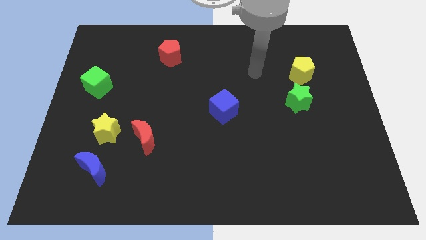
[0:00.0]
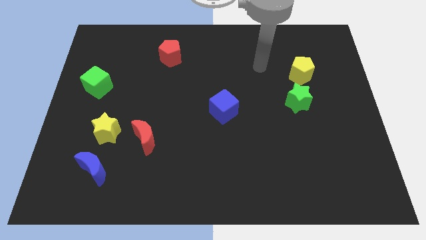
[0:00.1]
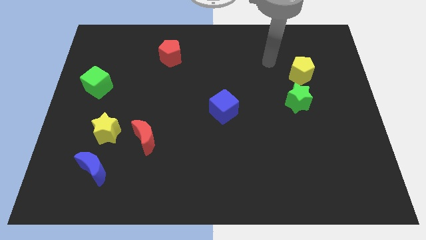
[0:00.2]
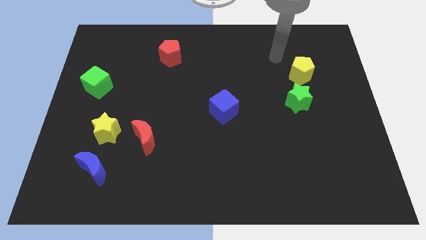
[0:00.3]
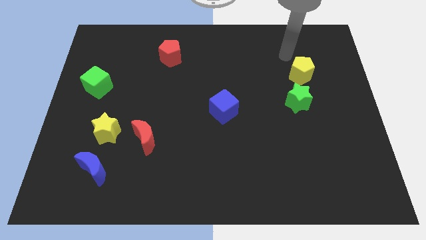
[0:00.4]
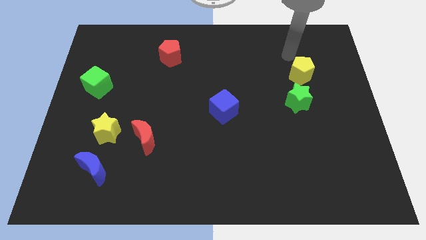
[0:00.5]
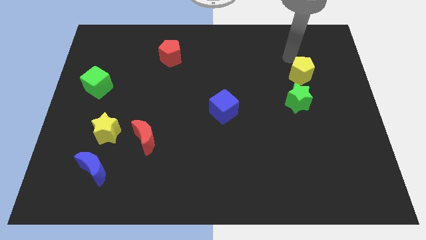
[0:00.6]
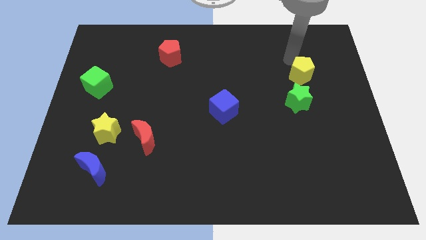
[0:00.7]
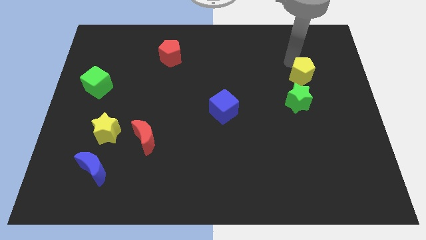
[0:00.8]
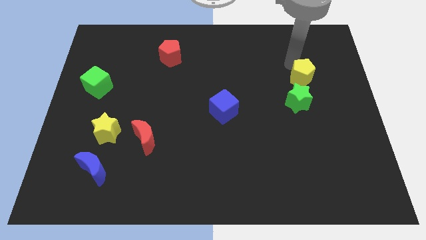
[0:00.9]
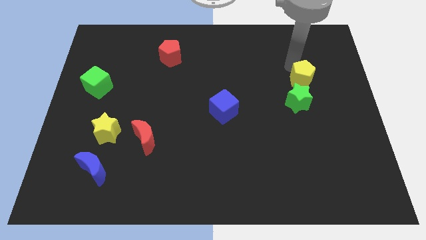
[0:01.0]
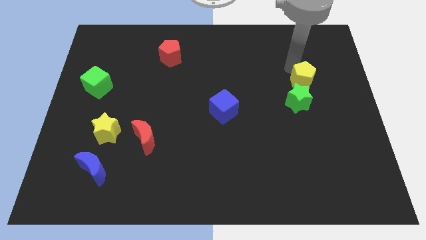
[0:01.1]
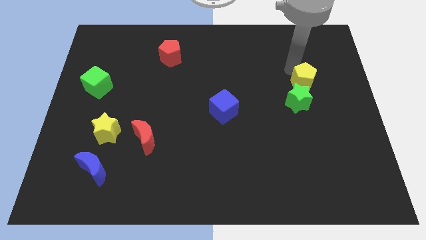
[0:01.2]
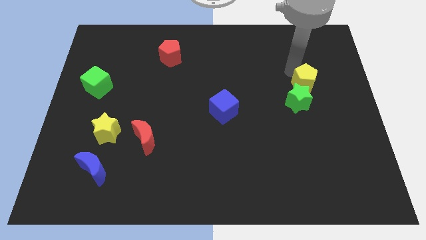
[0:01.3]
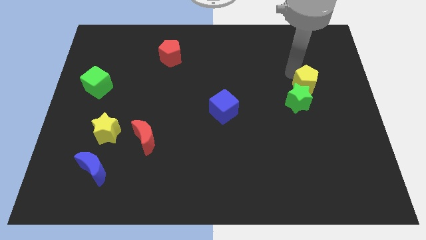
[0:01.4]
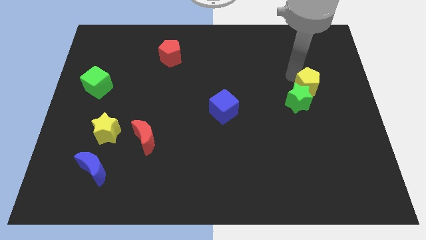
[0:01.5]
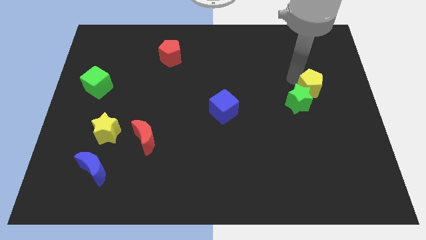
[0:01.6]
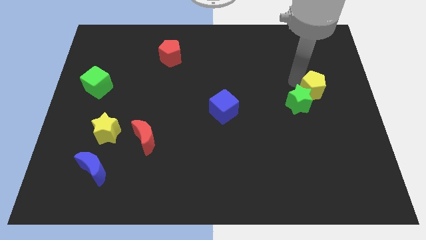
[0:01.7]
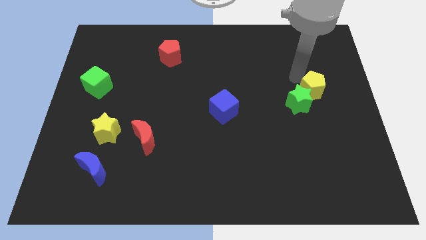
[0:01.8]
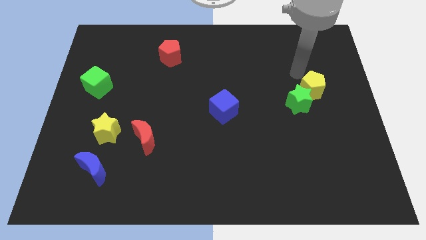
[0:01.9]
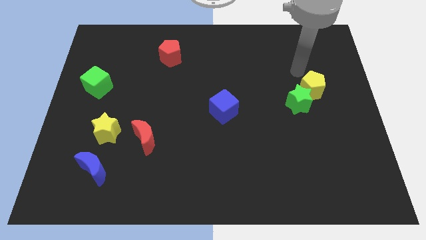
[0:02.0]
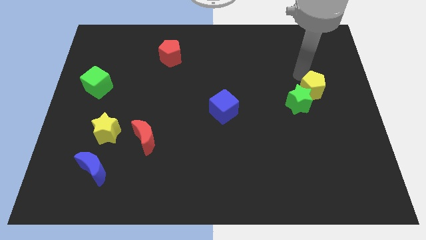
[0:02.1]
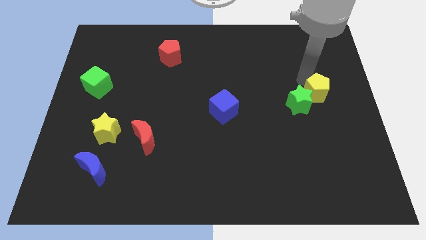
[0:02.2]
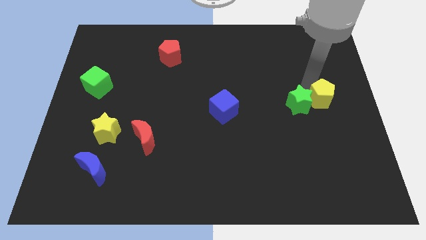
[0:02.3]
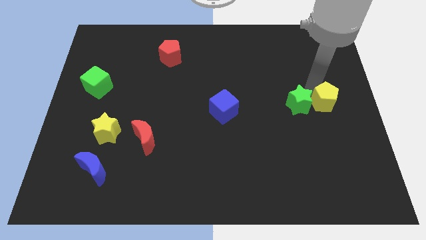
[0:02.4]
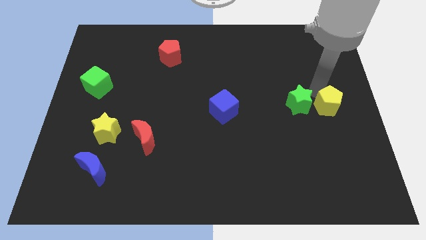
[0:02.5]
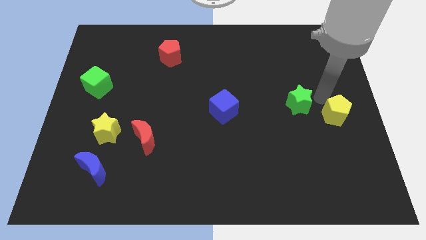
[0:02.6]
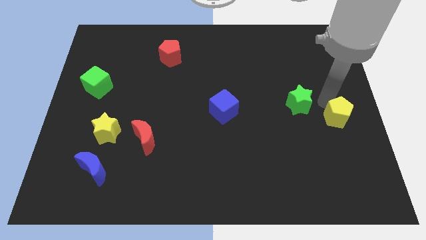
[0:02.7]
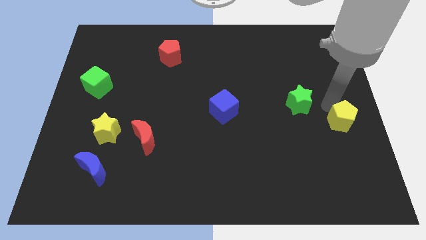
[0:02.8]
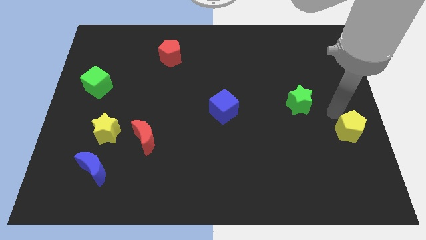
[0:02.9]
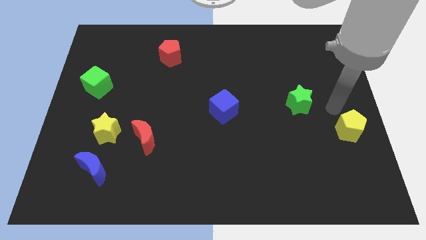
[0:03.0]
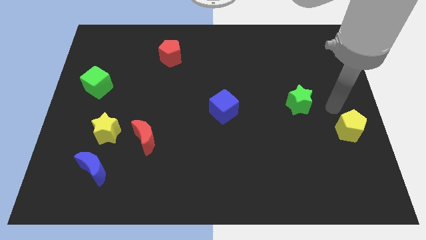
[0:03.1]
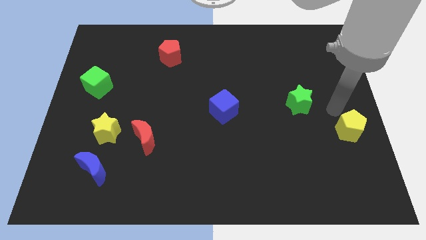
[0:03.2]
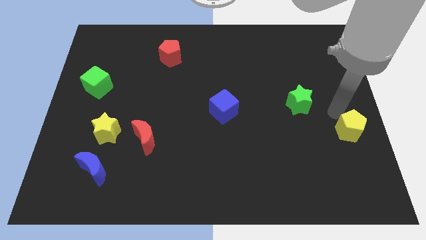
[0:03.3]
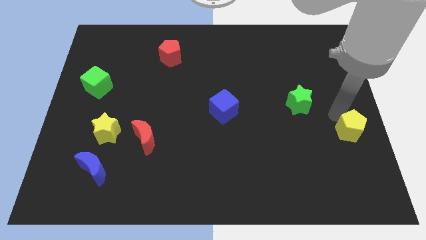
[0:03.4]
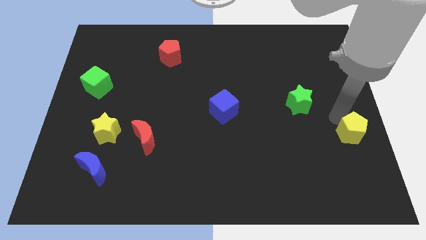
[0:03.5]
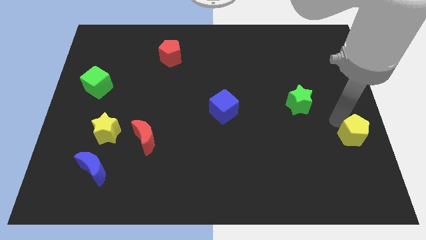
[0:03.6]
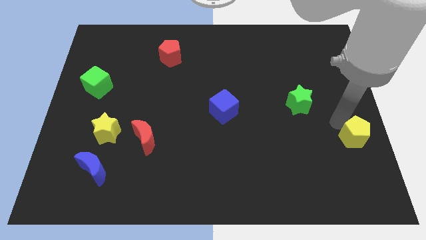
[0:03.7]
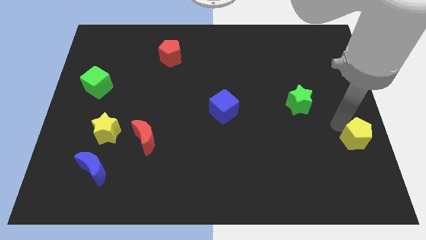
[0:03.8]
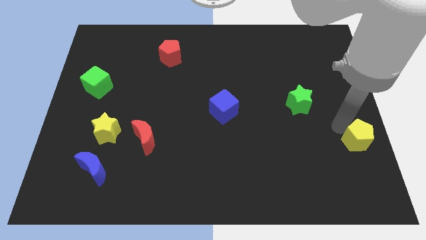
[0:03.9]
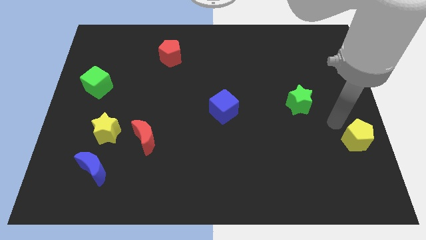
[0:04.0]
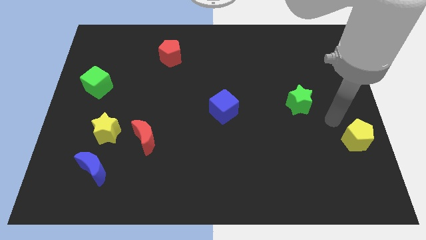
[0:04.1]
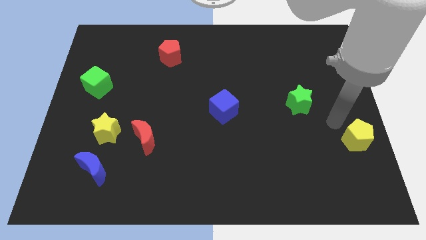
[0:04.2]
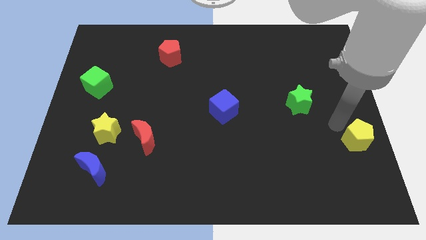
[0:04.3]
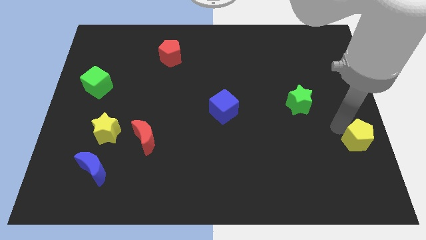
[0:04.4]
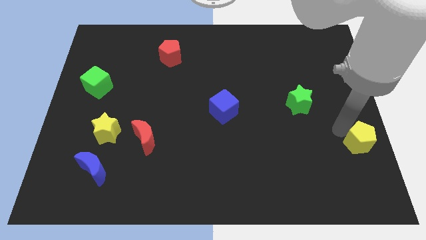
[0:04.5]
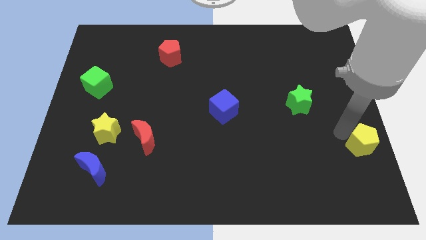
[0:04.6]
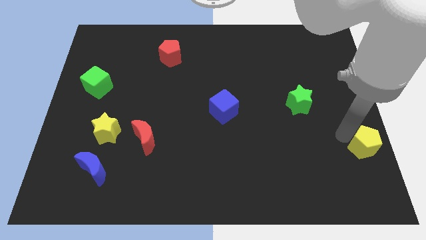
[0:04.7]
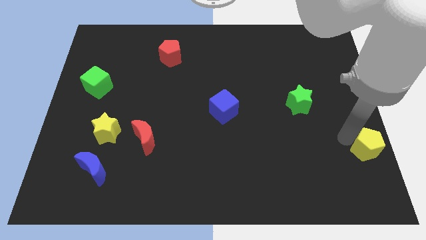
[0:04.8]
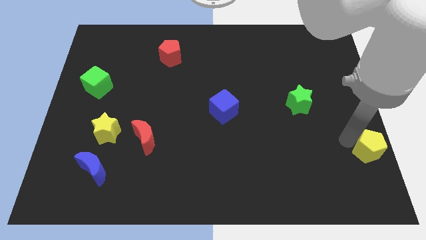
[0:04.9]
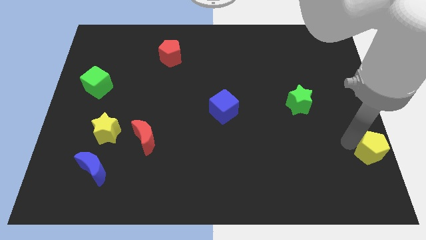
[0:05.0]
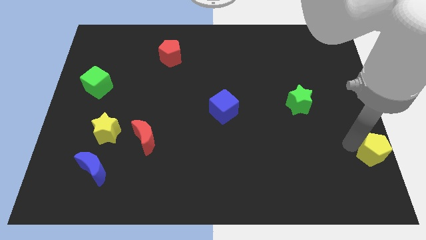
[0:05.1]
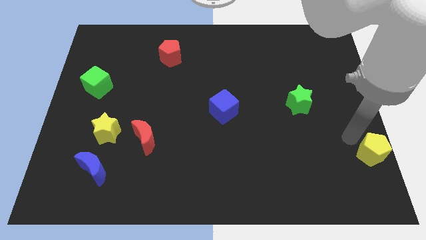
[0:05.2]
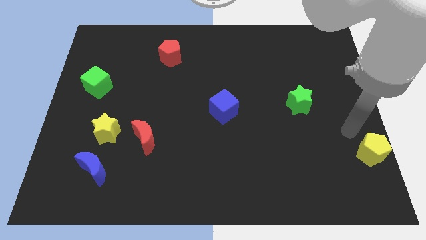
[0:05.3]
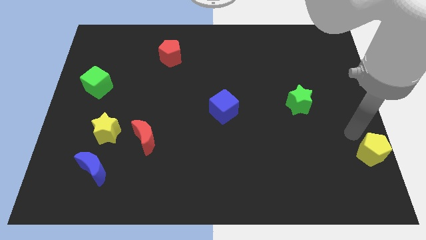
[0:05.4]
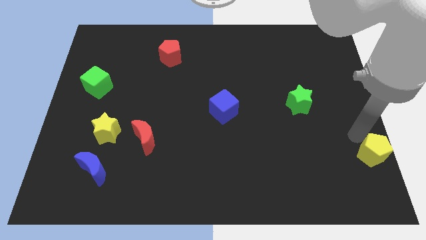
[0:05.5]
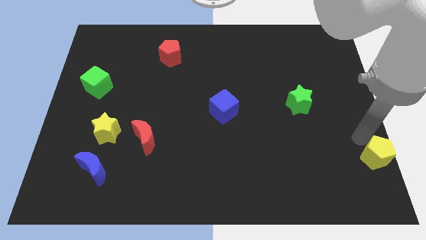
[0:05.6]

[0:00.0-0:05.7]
slide the yellow pentagon to the bottom right of the board

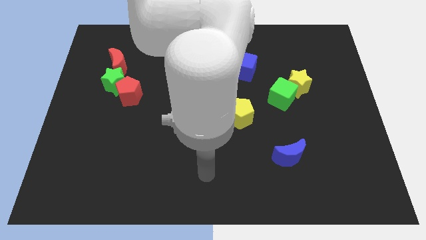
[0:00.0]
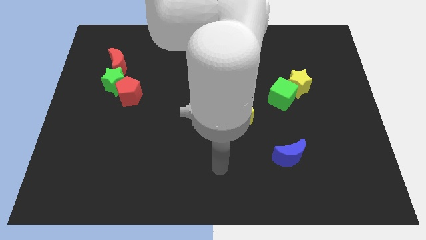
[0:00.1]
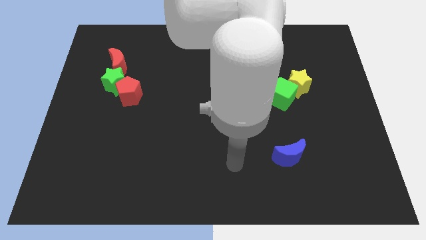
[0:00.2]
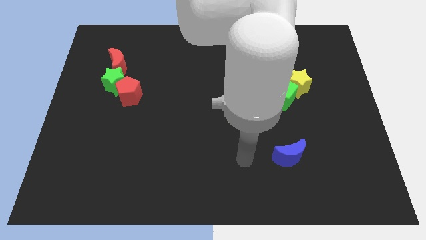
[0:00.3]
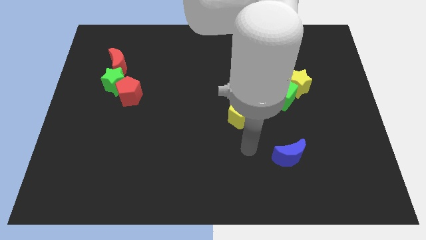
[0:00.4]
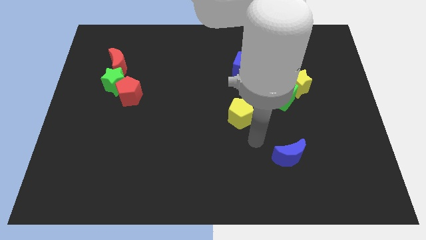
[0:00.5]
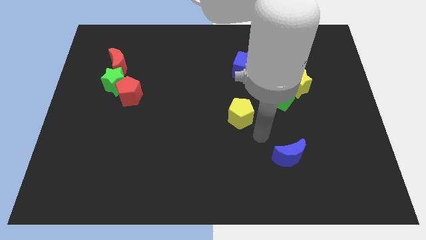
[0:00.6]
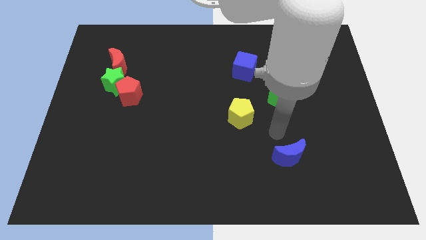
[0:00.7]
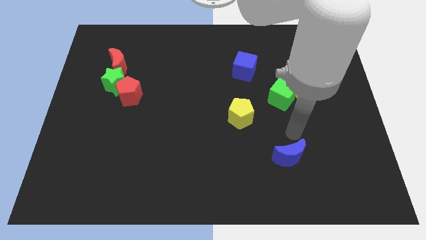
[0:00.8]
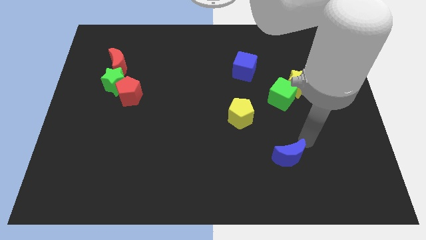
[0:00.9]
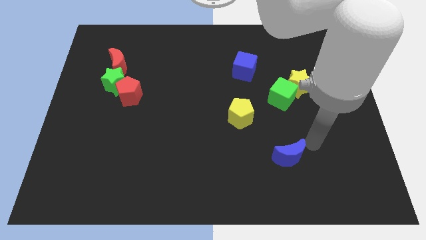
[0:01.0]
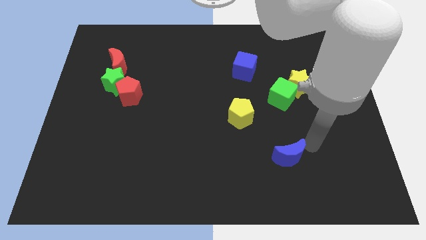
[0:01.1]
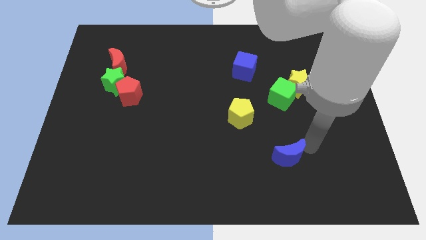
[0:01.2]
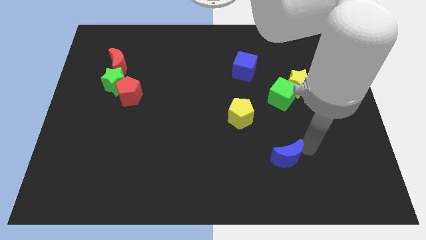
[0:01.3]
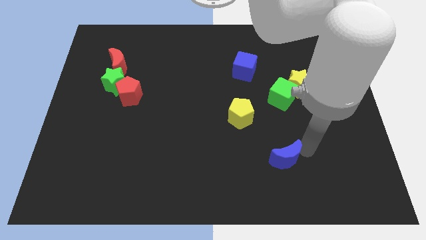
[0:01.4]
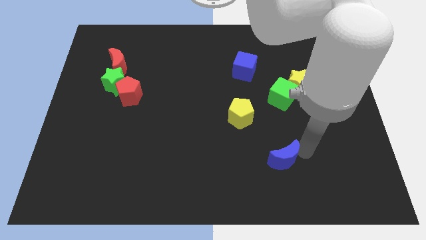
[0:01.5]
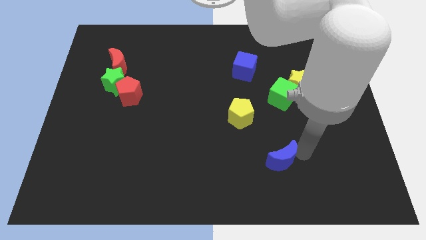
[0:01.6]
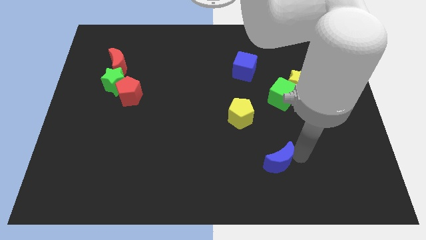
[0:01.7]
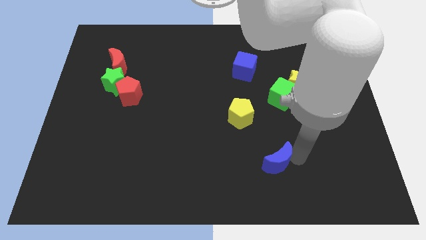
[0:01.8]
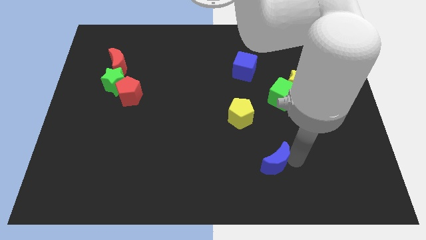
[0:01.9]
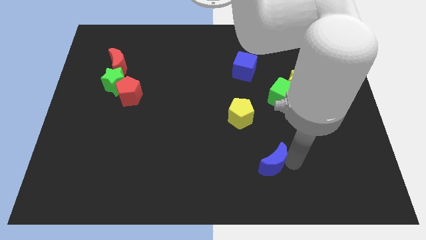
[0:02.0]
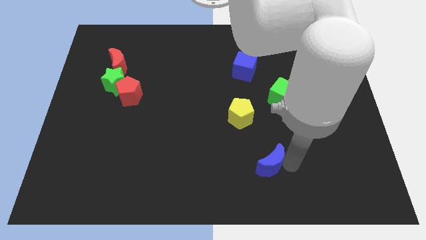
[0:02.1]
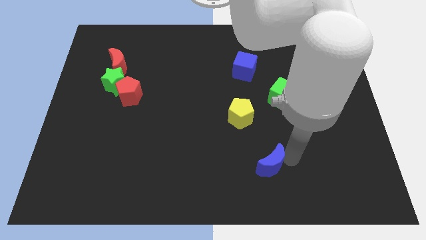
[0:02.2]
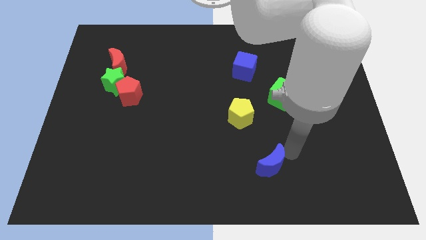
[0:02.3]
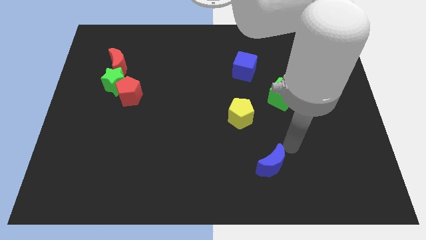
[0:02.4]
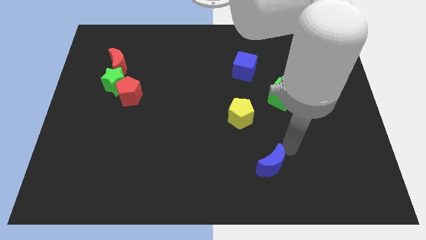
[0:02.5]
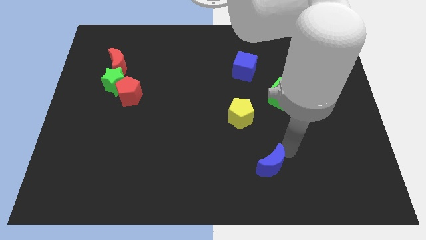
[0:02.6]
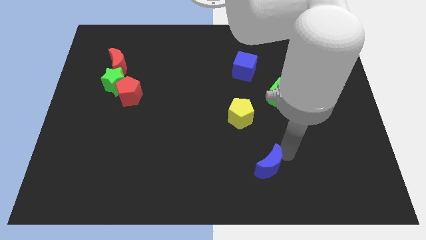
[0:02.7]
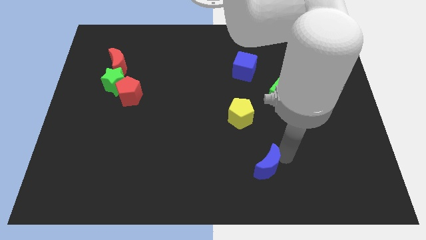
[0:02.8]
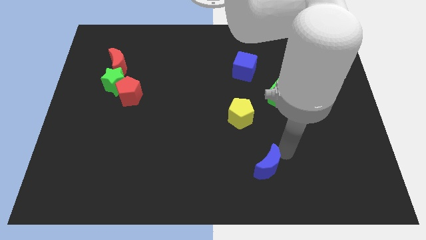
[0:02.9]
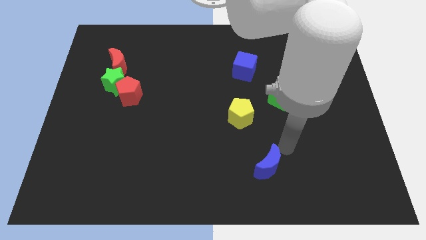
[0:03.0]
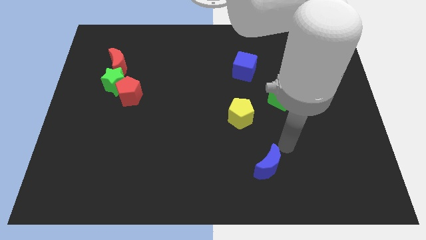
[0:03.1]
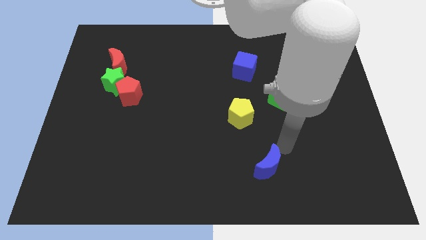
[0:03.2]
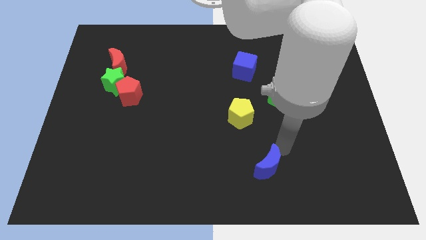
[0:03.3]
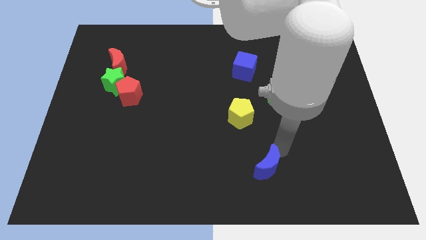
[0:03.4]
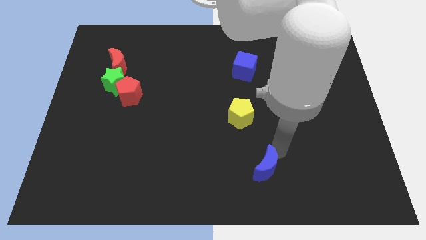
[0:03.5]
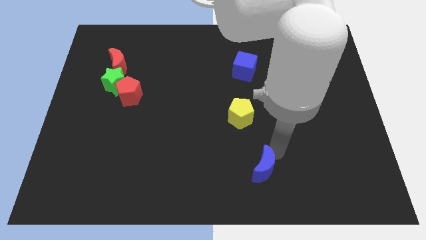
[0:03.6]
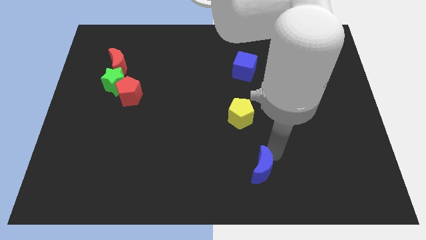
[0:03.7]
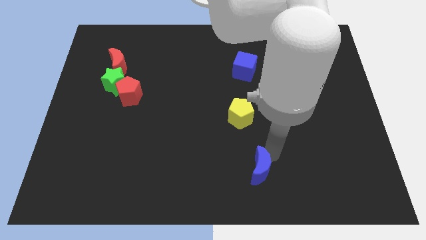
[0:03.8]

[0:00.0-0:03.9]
put the blue moon to the bottom side
